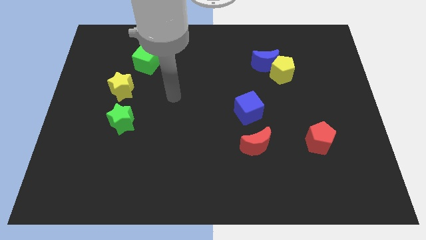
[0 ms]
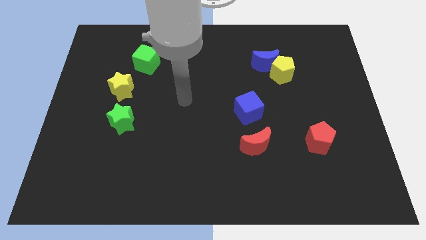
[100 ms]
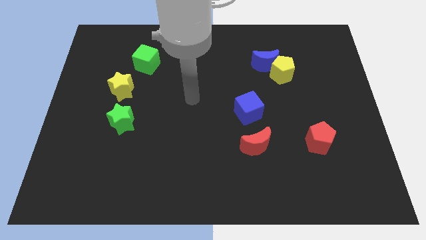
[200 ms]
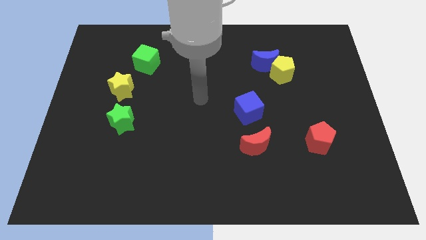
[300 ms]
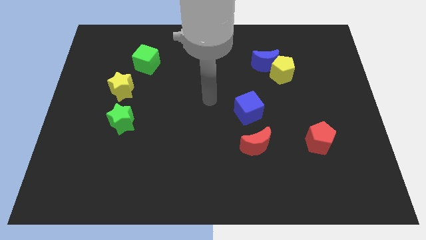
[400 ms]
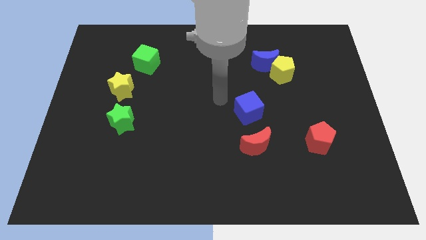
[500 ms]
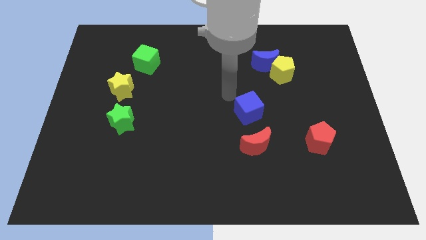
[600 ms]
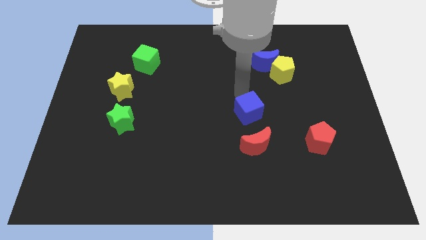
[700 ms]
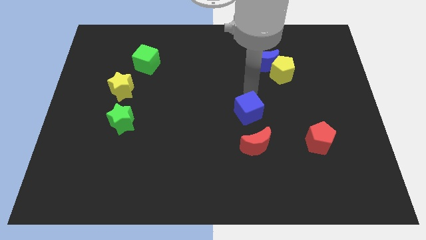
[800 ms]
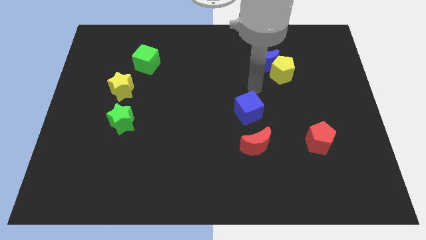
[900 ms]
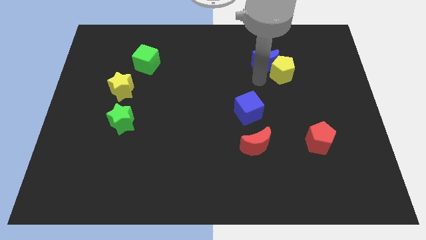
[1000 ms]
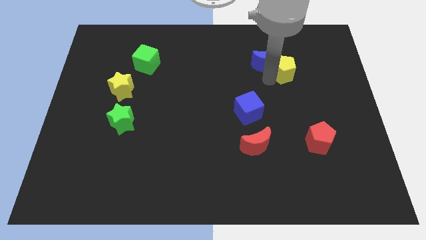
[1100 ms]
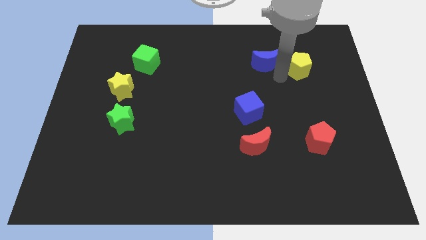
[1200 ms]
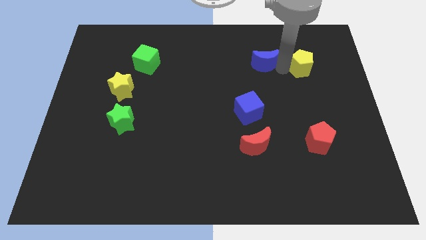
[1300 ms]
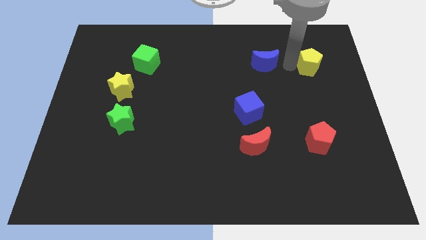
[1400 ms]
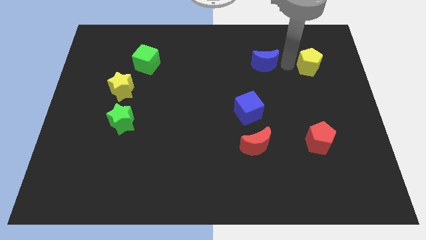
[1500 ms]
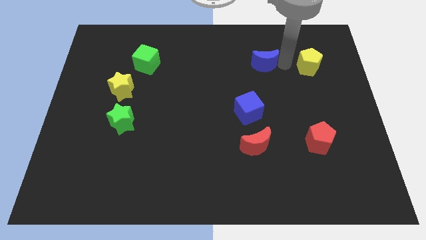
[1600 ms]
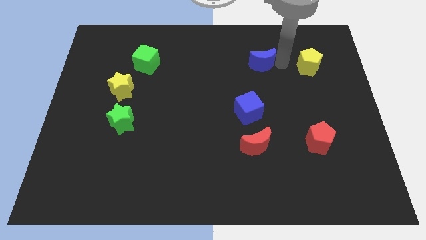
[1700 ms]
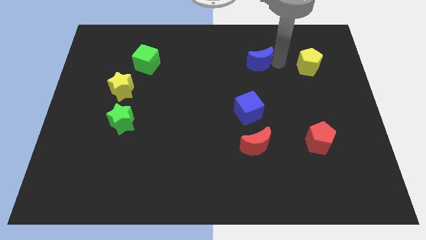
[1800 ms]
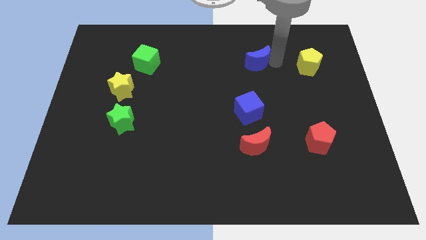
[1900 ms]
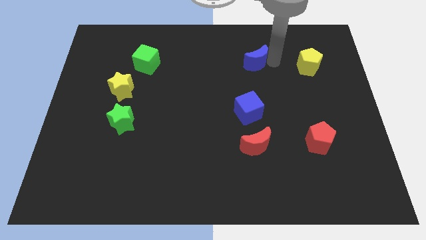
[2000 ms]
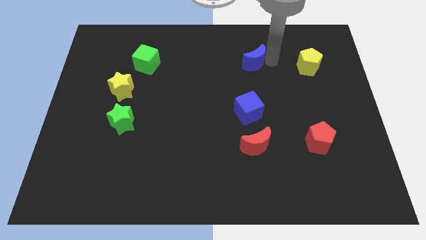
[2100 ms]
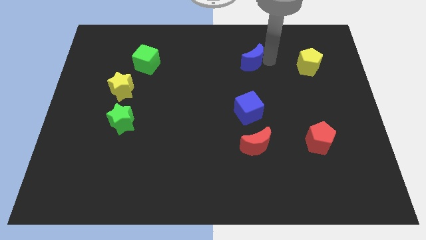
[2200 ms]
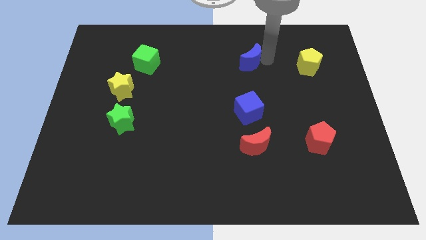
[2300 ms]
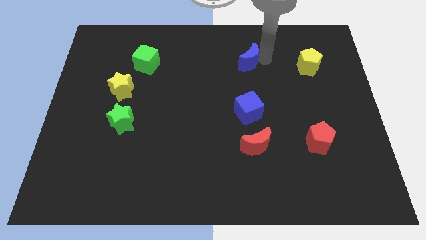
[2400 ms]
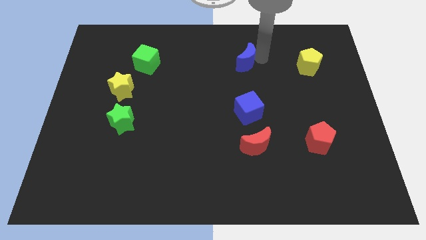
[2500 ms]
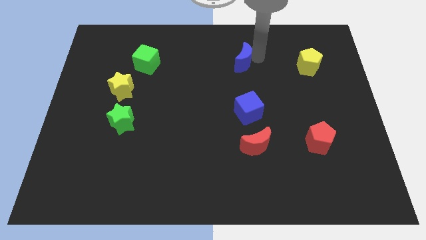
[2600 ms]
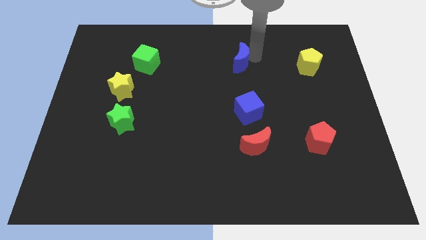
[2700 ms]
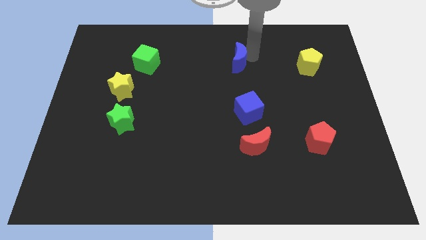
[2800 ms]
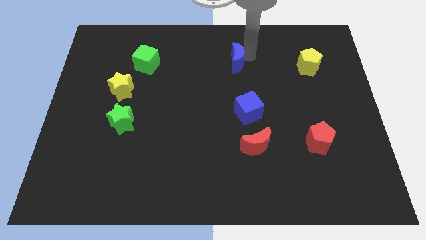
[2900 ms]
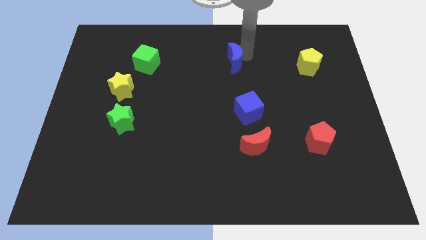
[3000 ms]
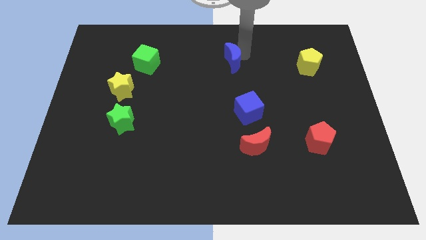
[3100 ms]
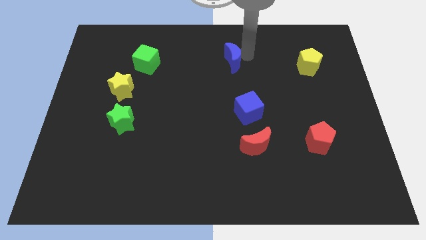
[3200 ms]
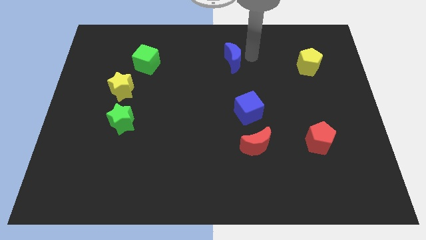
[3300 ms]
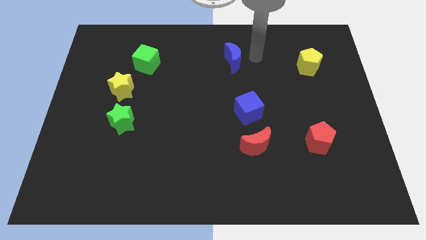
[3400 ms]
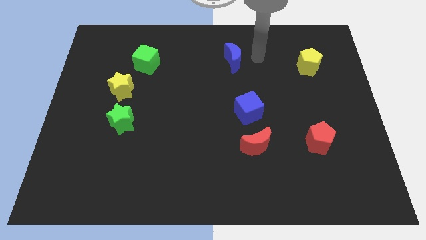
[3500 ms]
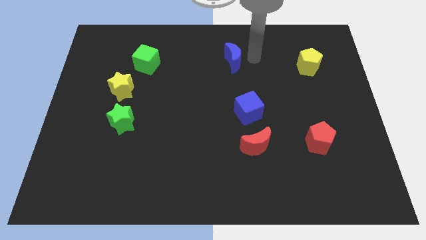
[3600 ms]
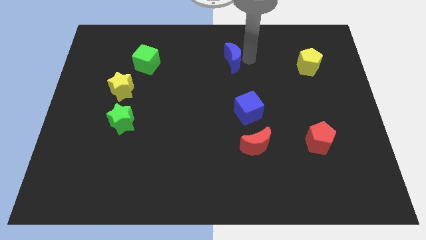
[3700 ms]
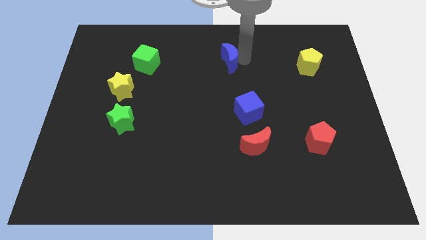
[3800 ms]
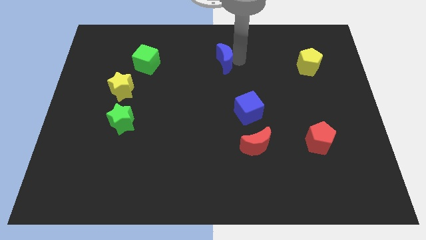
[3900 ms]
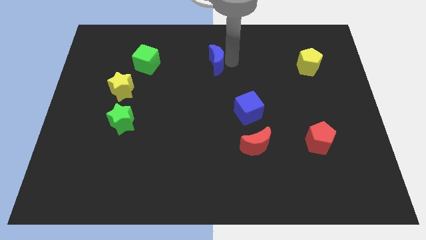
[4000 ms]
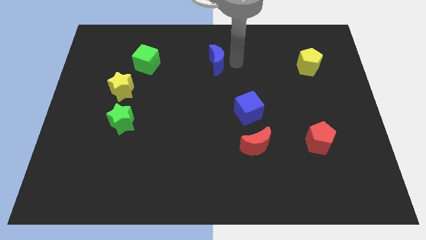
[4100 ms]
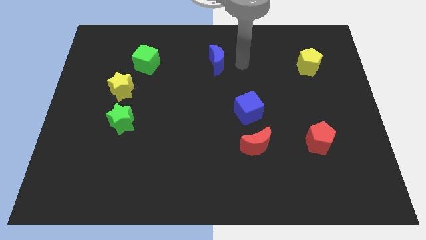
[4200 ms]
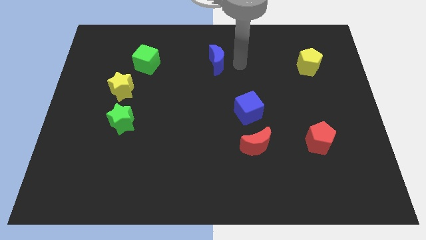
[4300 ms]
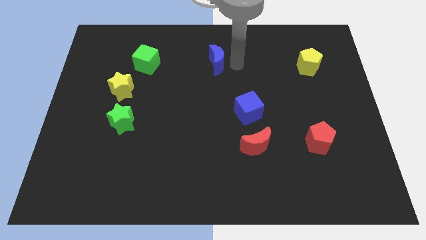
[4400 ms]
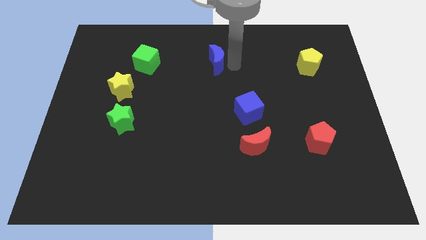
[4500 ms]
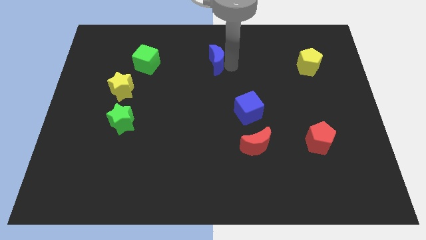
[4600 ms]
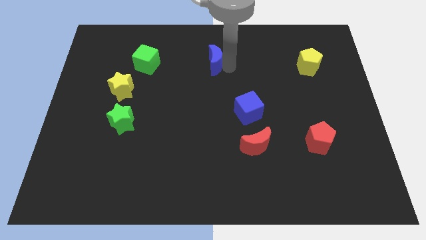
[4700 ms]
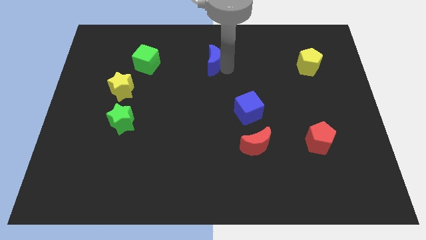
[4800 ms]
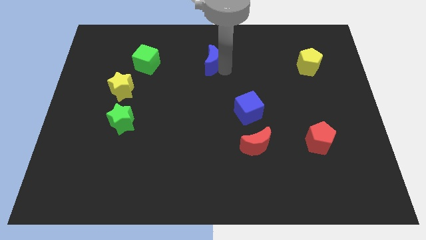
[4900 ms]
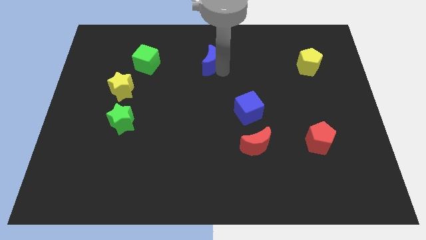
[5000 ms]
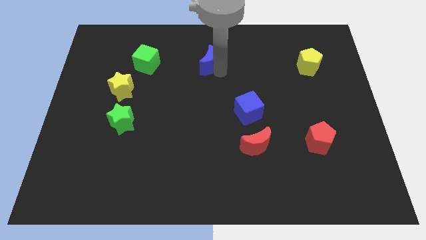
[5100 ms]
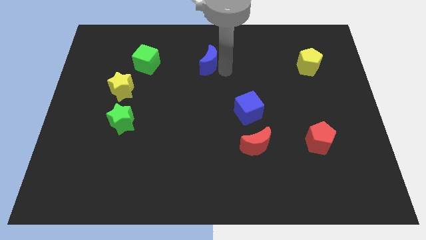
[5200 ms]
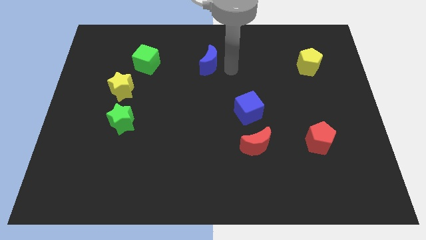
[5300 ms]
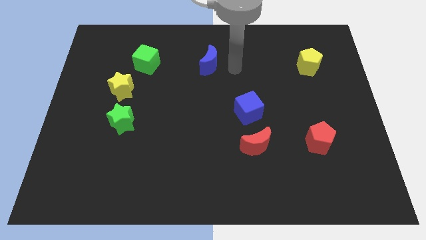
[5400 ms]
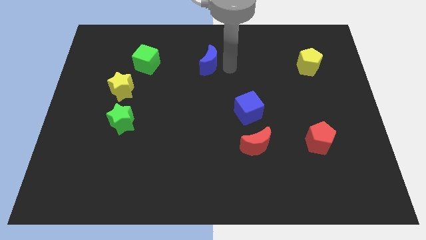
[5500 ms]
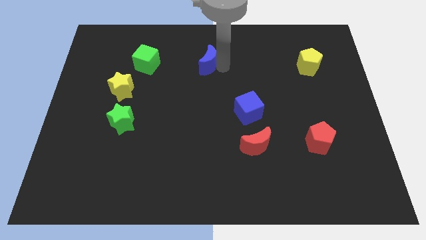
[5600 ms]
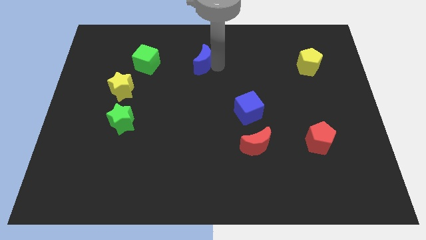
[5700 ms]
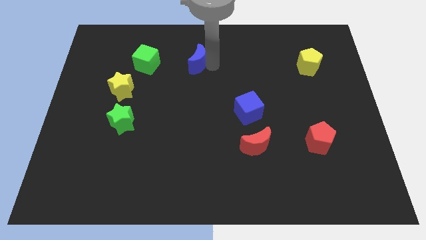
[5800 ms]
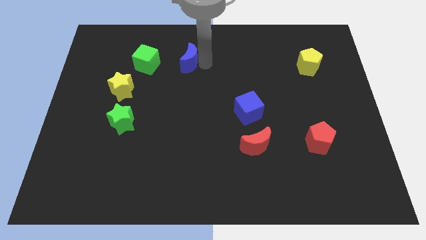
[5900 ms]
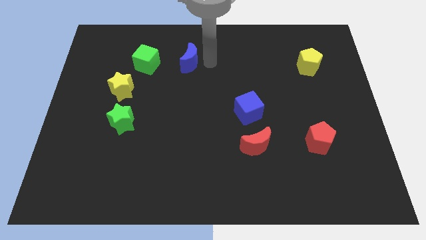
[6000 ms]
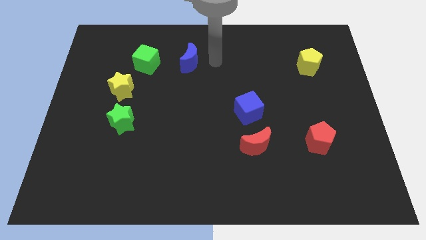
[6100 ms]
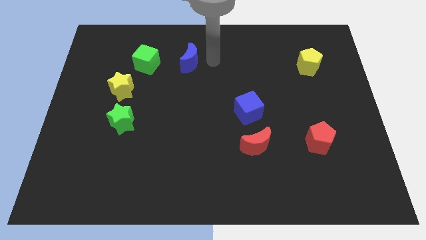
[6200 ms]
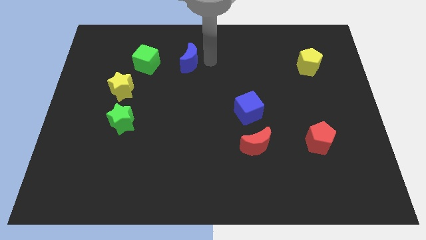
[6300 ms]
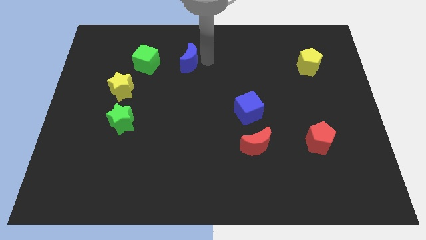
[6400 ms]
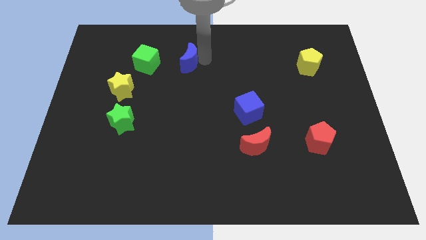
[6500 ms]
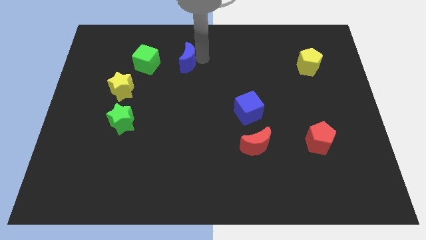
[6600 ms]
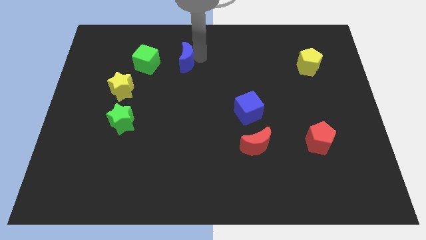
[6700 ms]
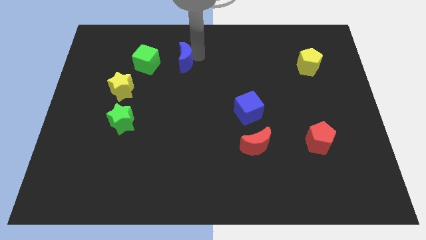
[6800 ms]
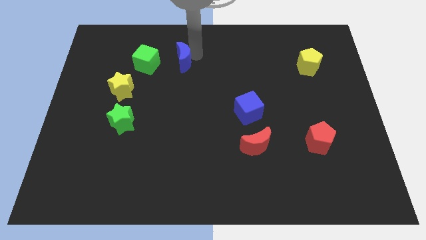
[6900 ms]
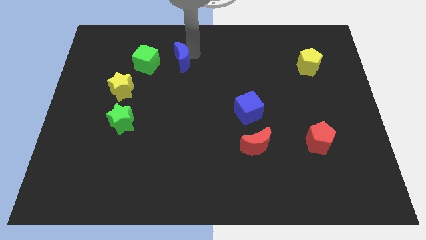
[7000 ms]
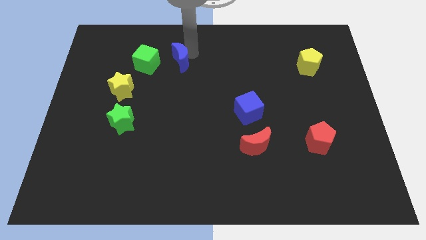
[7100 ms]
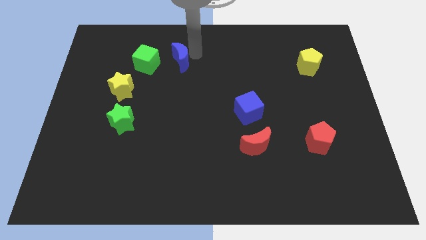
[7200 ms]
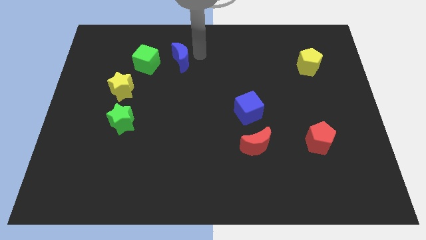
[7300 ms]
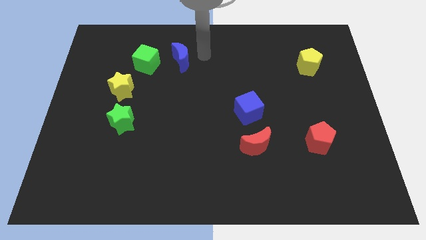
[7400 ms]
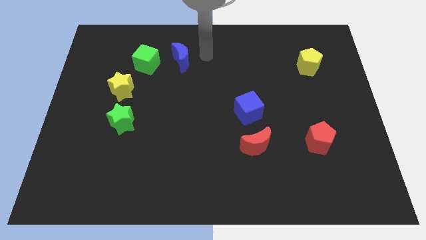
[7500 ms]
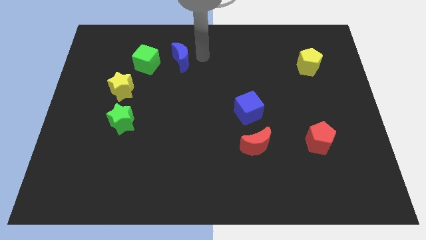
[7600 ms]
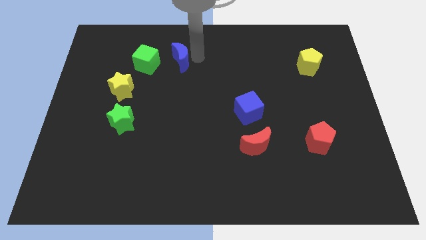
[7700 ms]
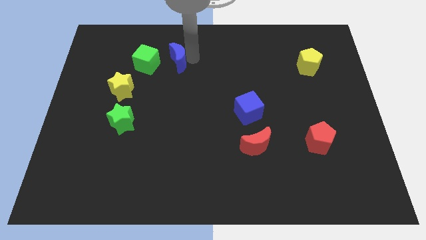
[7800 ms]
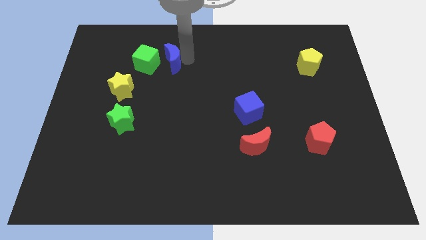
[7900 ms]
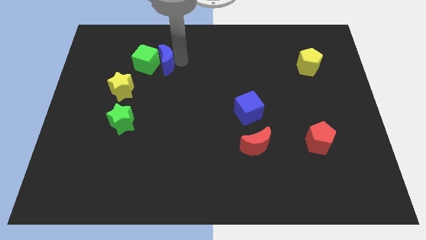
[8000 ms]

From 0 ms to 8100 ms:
put the blue moon next to the green cube
